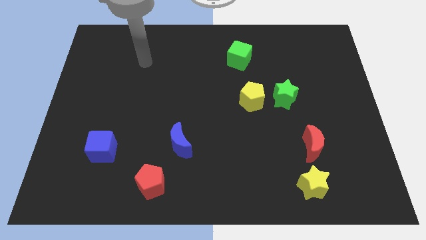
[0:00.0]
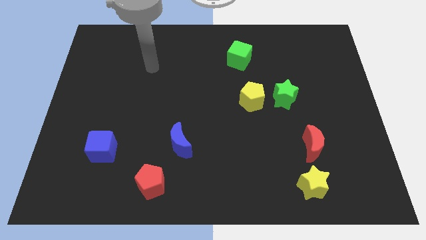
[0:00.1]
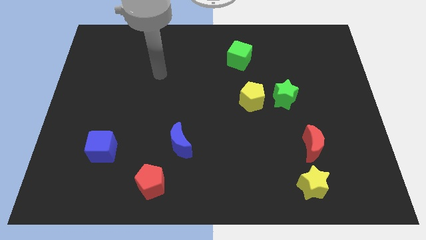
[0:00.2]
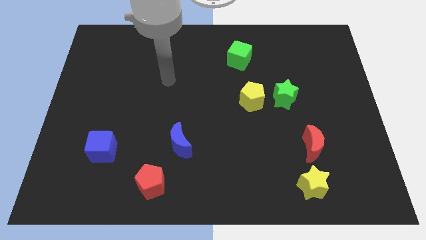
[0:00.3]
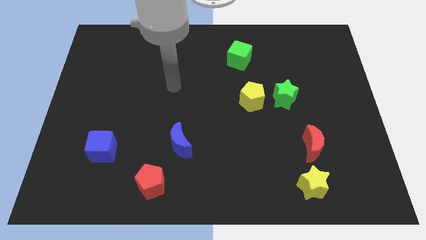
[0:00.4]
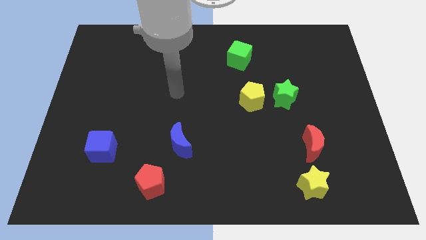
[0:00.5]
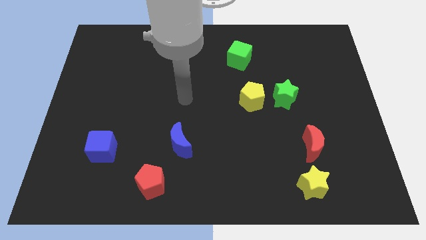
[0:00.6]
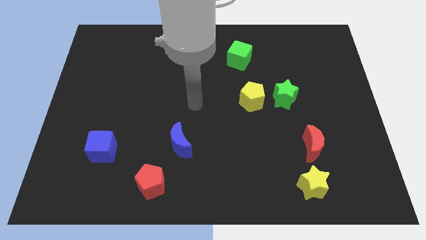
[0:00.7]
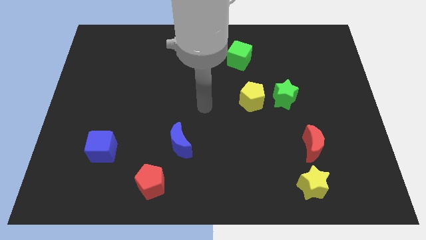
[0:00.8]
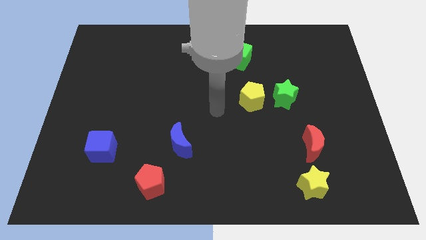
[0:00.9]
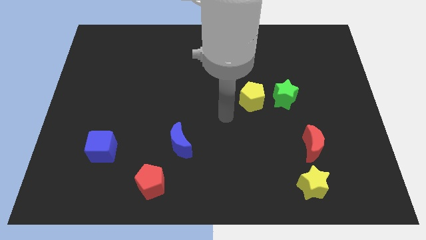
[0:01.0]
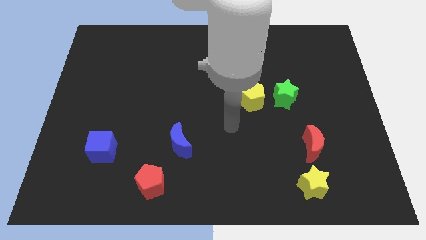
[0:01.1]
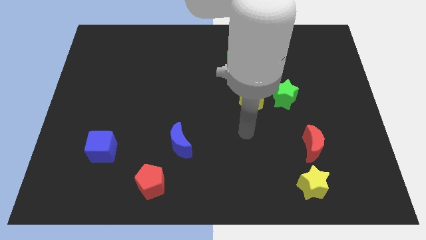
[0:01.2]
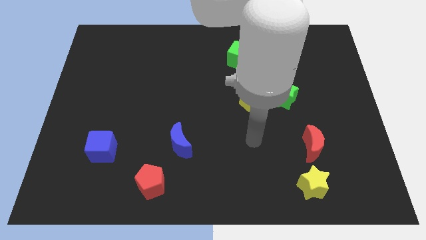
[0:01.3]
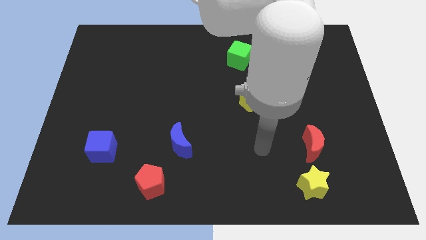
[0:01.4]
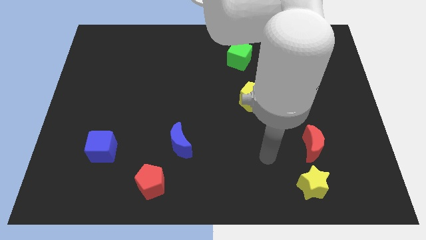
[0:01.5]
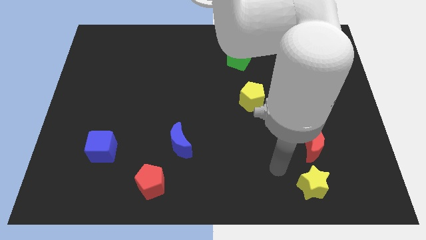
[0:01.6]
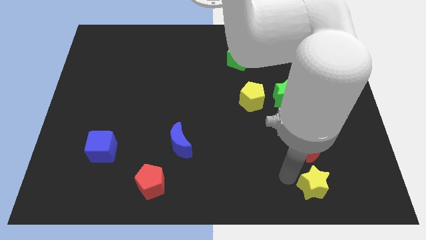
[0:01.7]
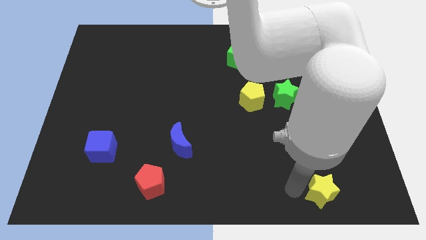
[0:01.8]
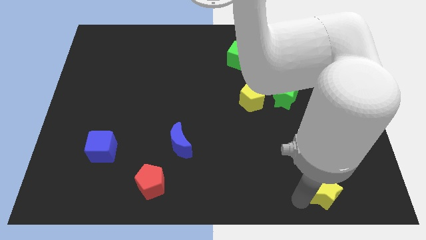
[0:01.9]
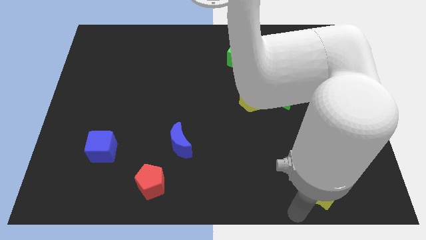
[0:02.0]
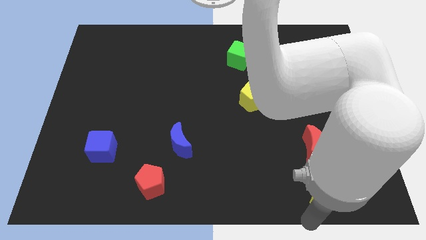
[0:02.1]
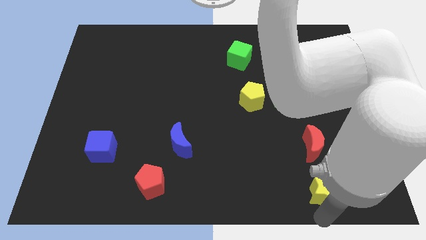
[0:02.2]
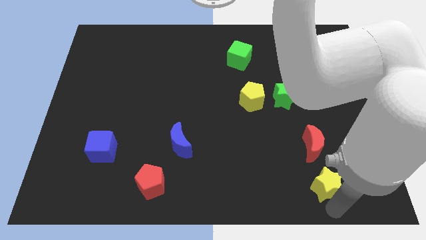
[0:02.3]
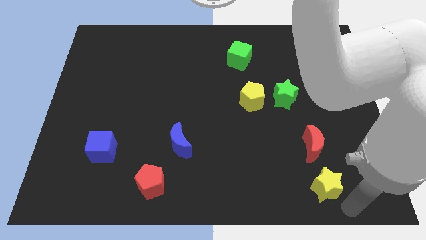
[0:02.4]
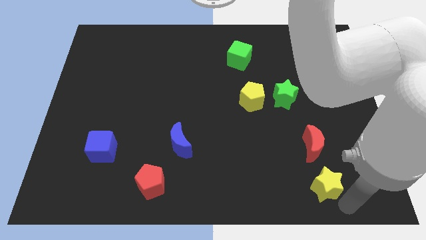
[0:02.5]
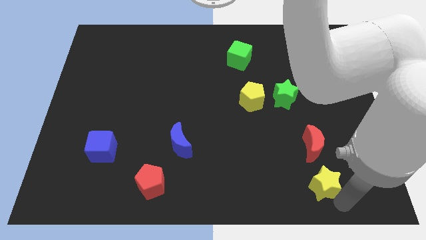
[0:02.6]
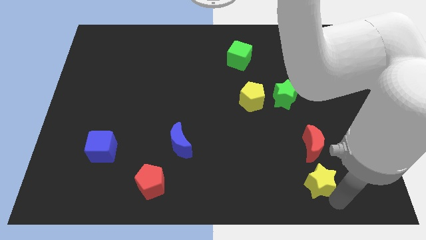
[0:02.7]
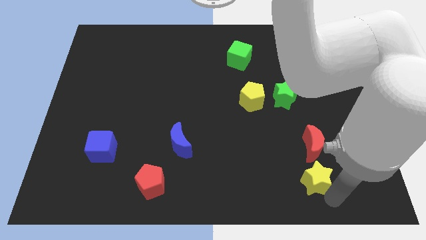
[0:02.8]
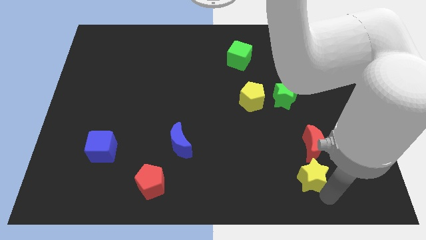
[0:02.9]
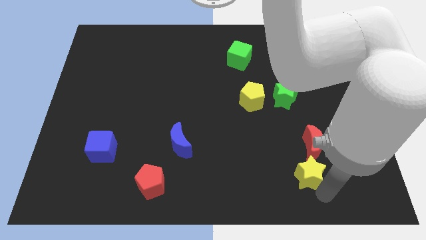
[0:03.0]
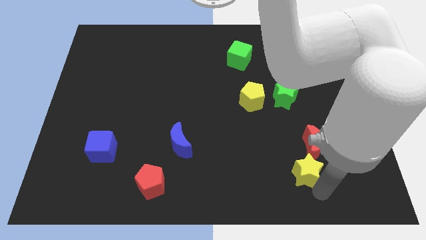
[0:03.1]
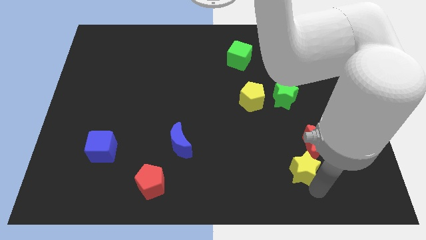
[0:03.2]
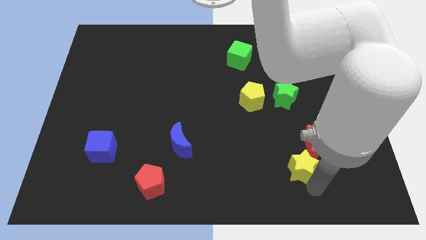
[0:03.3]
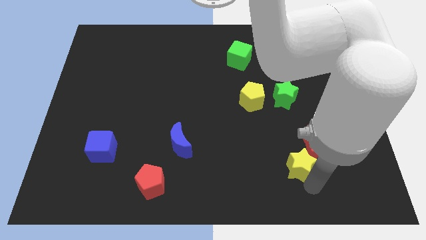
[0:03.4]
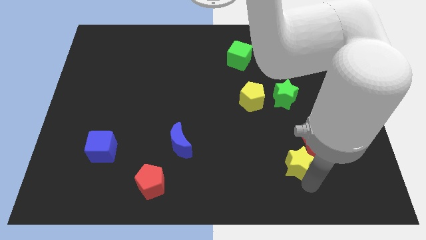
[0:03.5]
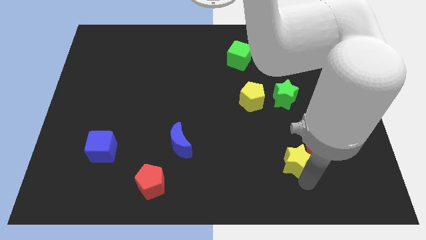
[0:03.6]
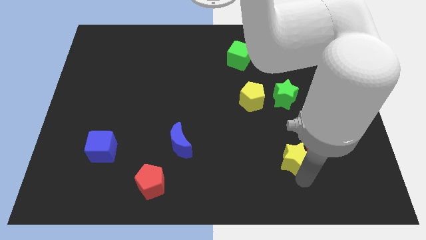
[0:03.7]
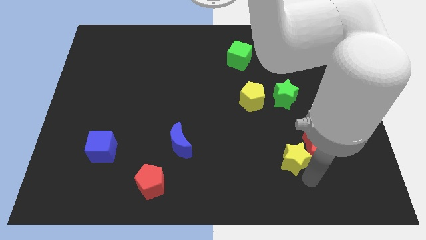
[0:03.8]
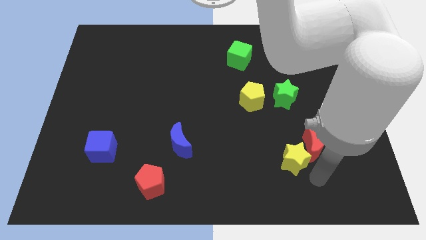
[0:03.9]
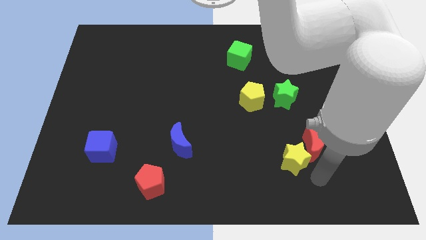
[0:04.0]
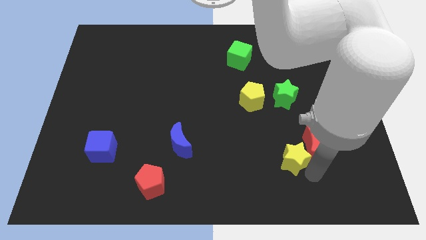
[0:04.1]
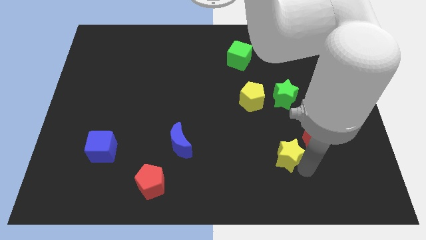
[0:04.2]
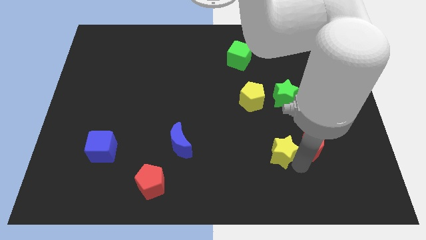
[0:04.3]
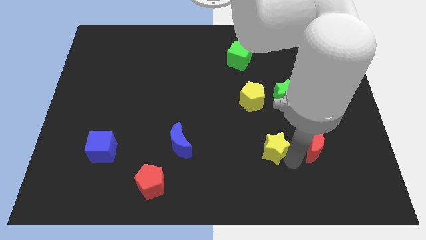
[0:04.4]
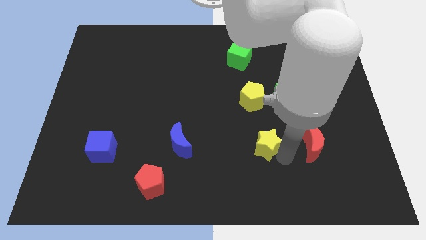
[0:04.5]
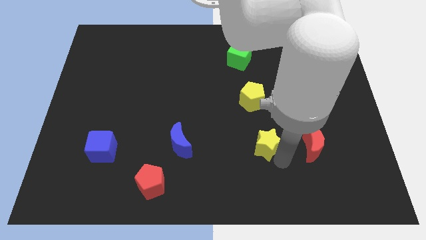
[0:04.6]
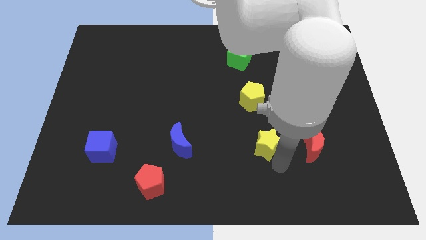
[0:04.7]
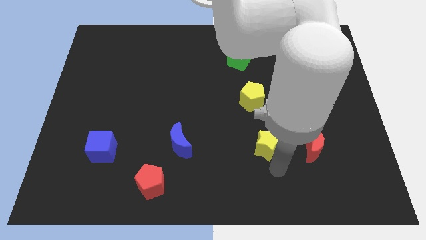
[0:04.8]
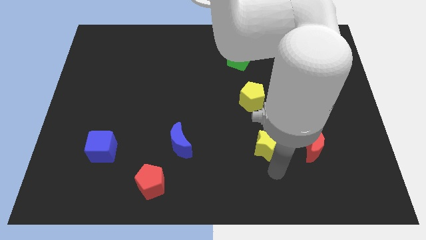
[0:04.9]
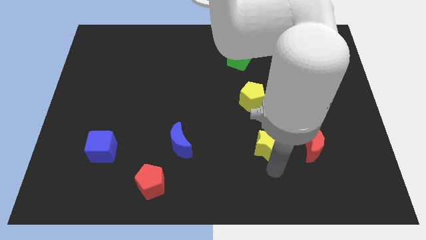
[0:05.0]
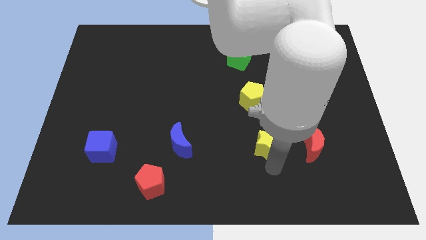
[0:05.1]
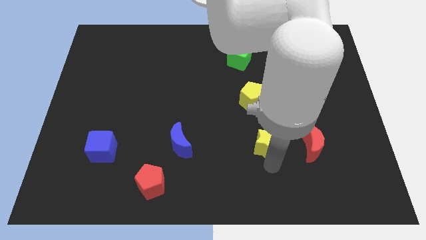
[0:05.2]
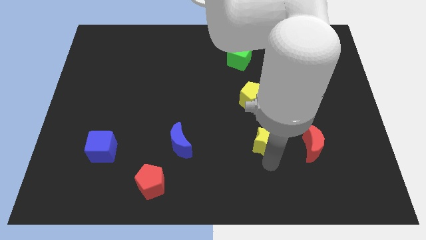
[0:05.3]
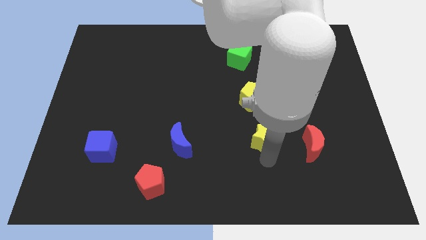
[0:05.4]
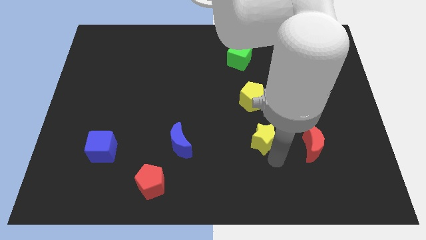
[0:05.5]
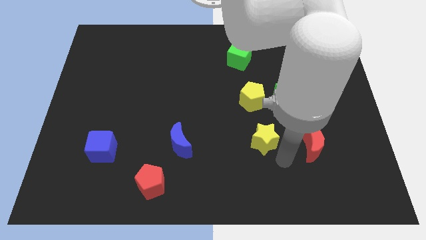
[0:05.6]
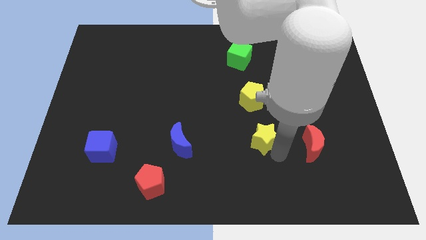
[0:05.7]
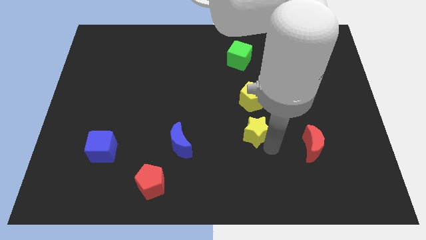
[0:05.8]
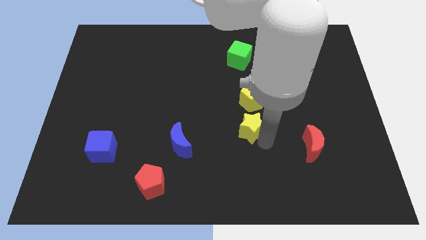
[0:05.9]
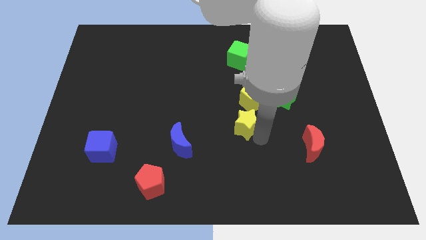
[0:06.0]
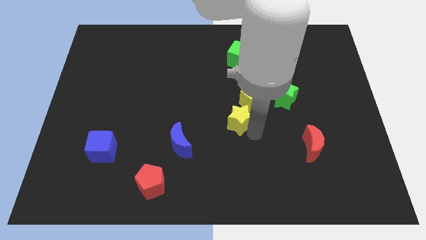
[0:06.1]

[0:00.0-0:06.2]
slide the yellow star up and then to the left

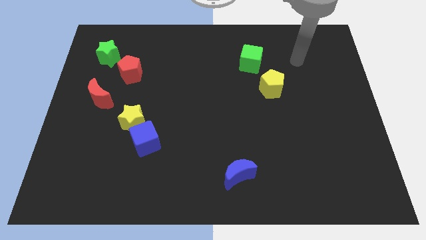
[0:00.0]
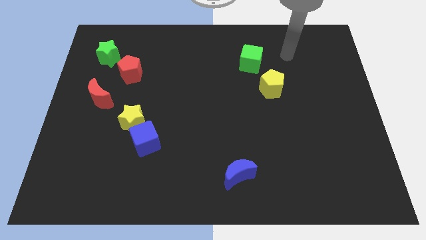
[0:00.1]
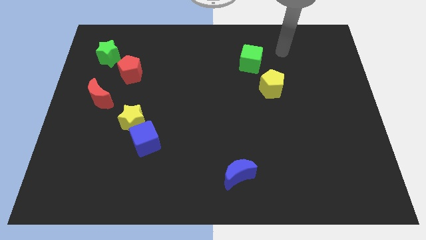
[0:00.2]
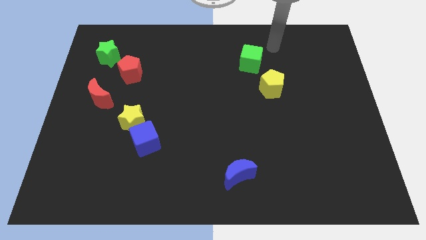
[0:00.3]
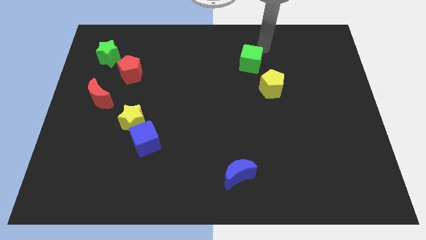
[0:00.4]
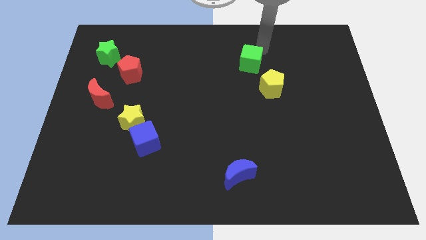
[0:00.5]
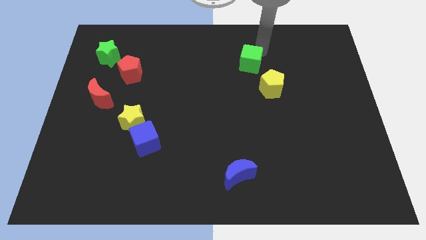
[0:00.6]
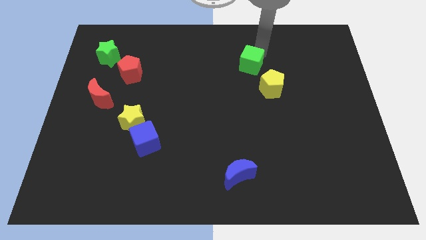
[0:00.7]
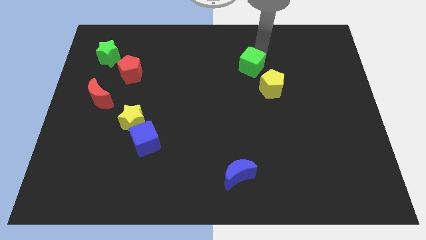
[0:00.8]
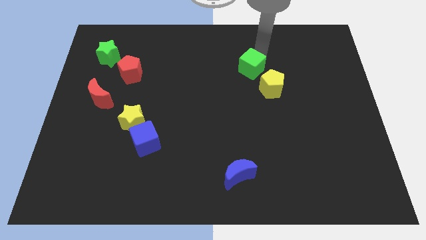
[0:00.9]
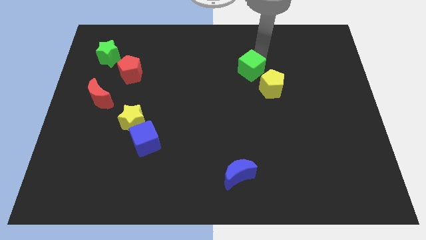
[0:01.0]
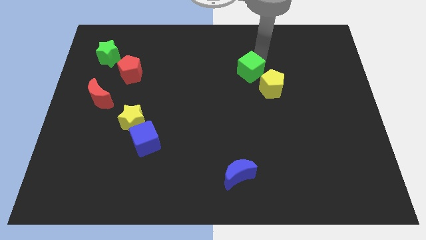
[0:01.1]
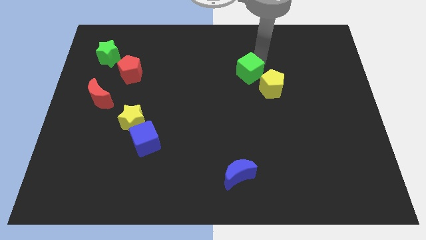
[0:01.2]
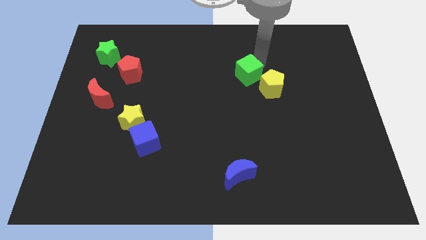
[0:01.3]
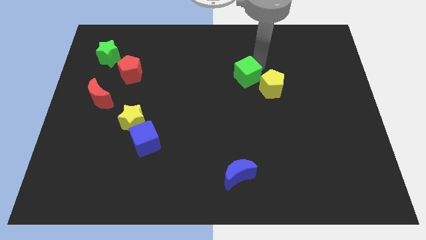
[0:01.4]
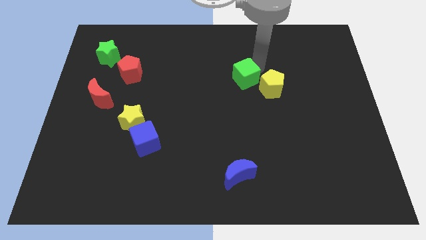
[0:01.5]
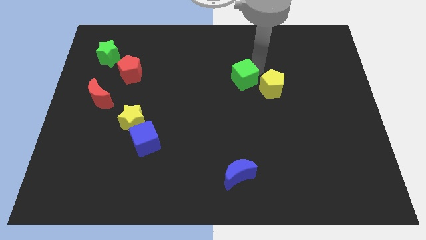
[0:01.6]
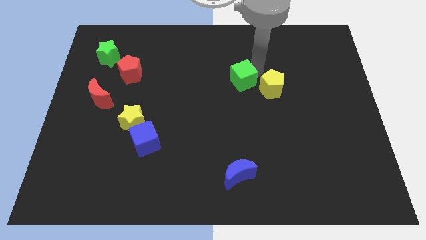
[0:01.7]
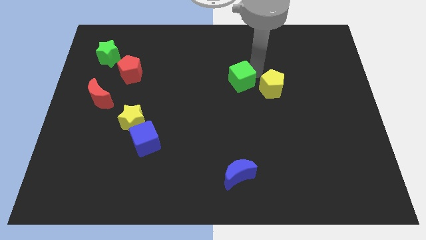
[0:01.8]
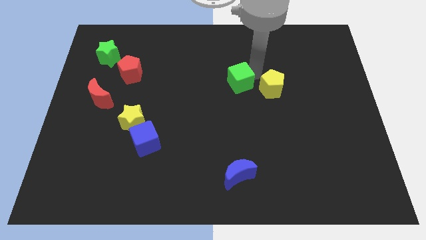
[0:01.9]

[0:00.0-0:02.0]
push the green cube down and to the left diagonally a little

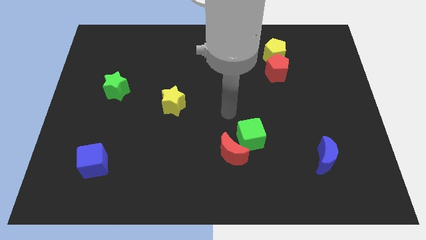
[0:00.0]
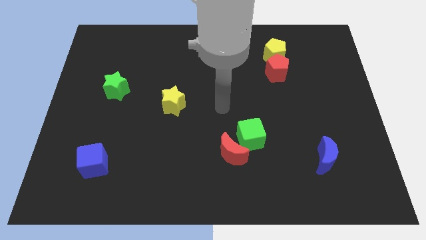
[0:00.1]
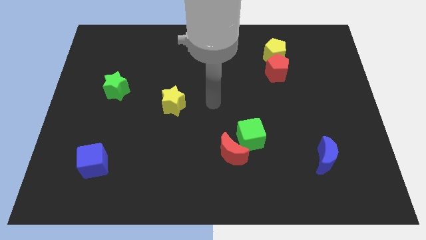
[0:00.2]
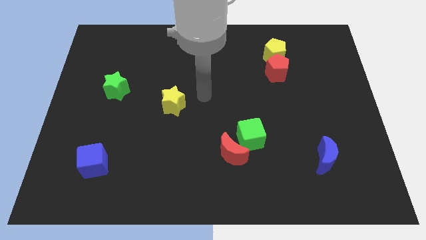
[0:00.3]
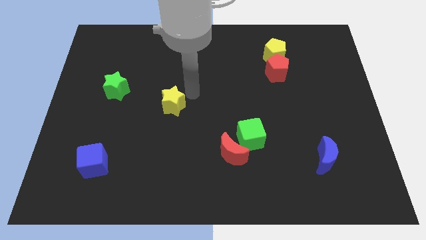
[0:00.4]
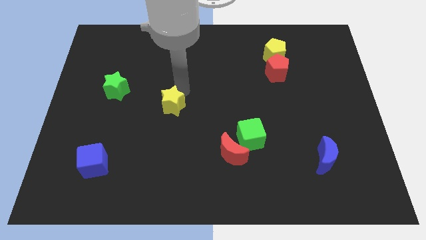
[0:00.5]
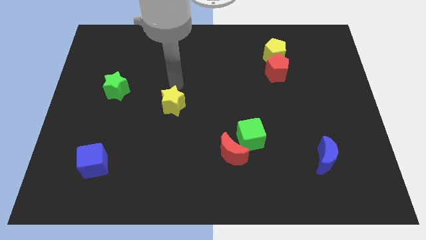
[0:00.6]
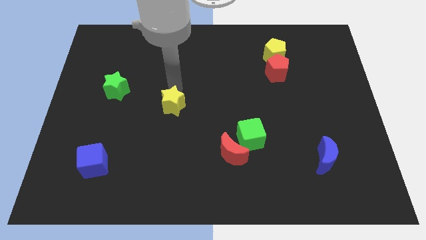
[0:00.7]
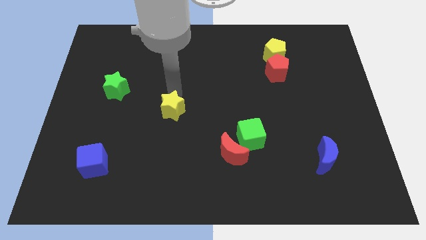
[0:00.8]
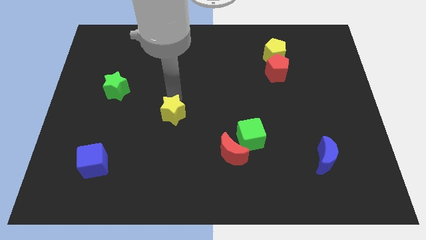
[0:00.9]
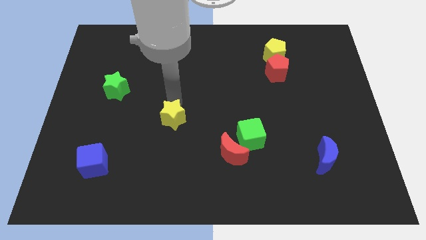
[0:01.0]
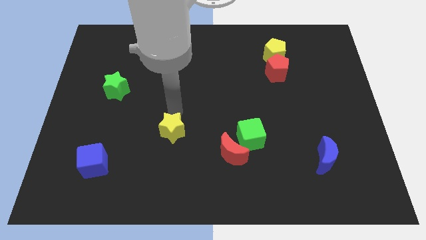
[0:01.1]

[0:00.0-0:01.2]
slightly move the yellow star down
